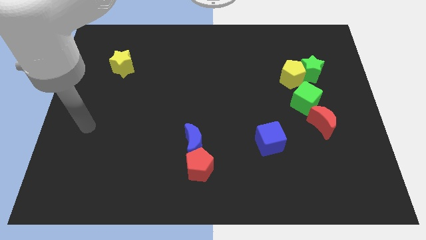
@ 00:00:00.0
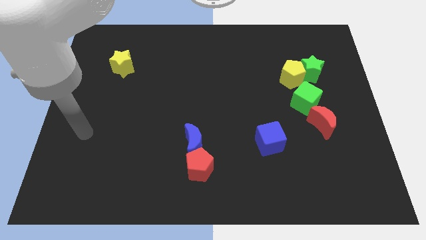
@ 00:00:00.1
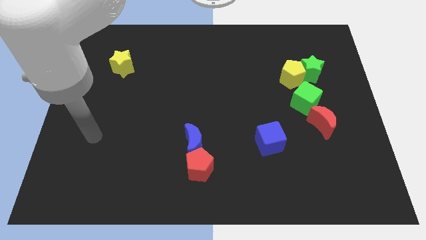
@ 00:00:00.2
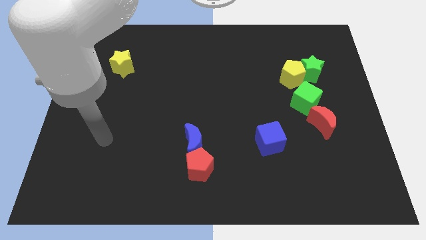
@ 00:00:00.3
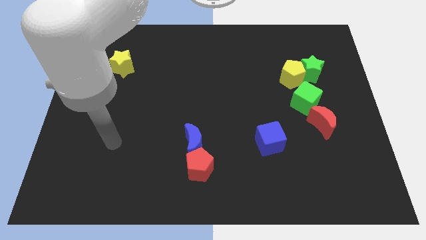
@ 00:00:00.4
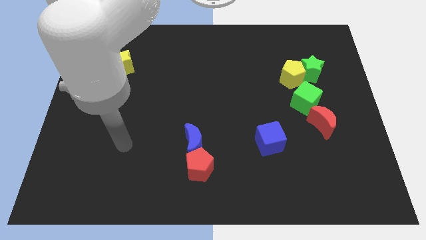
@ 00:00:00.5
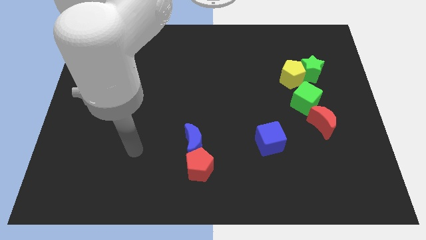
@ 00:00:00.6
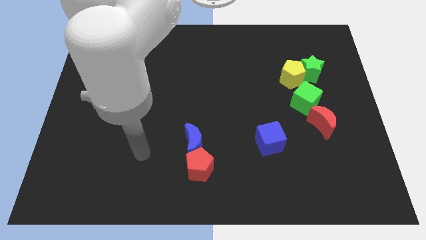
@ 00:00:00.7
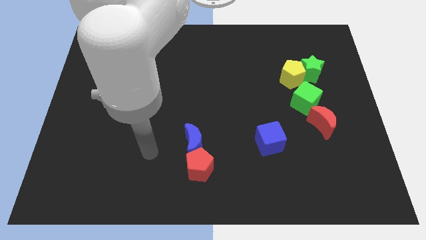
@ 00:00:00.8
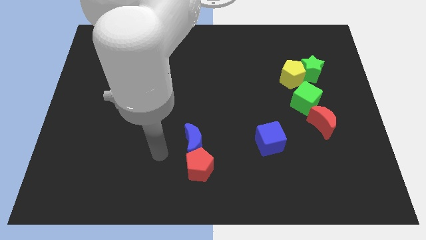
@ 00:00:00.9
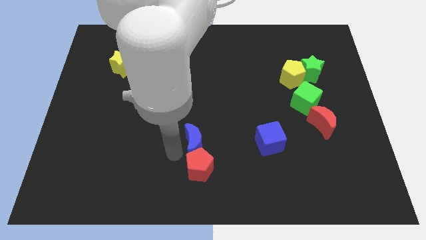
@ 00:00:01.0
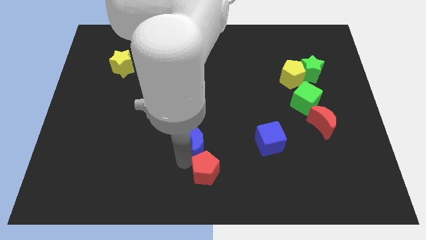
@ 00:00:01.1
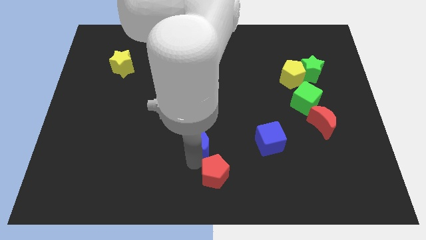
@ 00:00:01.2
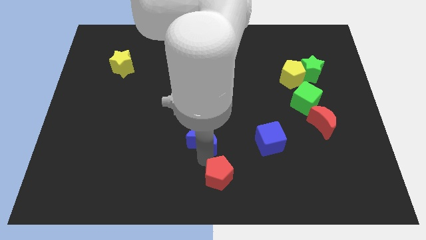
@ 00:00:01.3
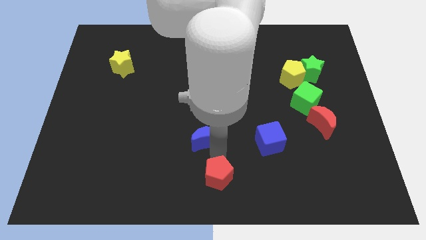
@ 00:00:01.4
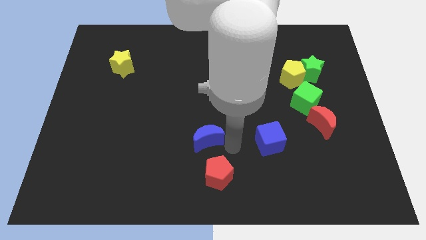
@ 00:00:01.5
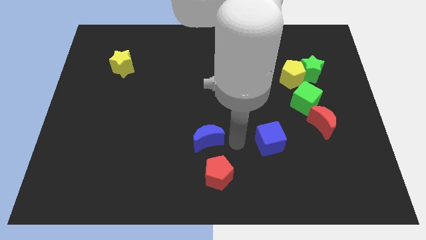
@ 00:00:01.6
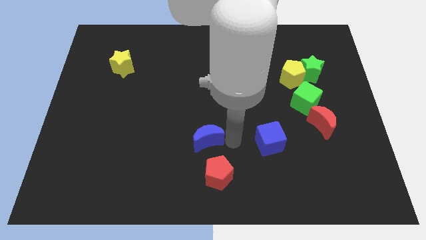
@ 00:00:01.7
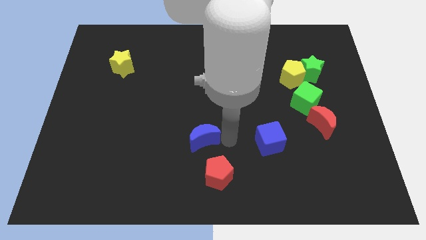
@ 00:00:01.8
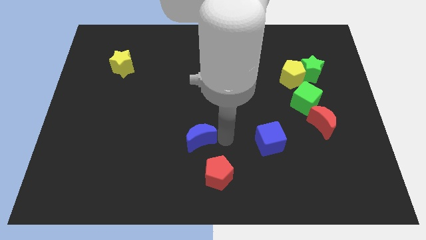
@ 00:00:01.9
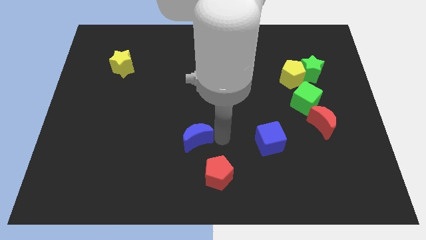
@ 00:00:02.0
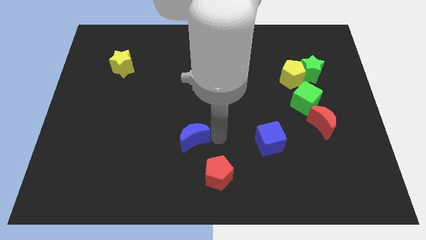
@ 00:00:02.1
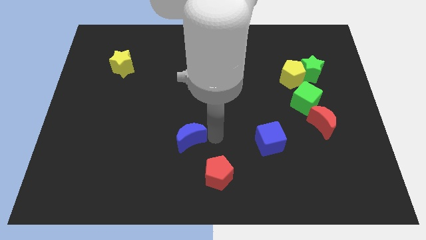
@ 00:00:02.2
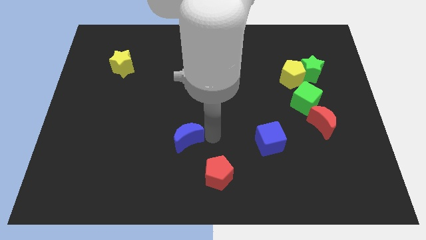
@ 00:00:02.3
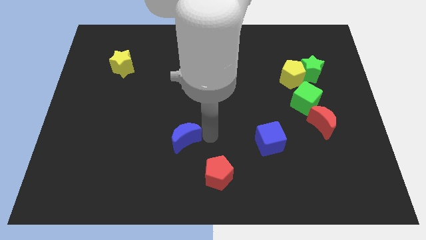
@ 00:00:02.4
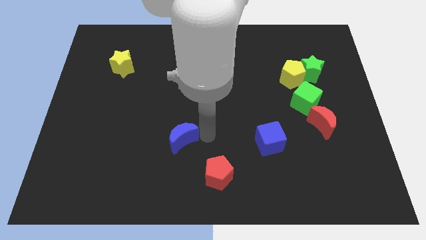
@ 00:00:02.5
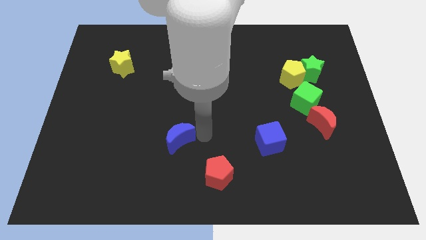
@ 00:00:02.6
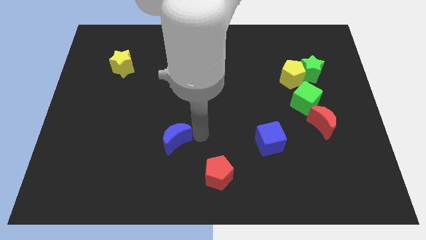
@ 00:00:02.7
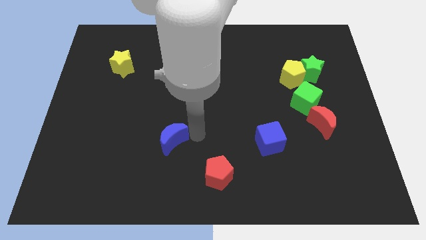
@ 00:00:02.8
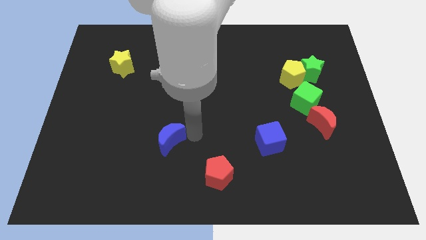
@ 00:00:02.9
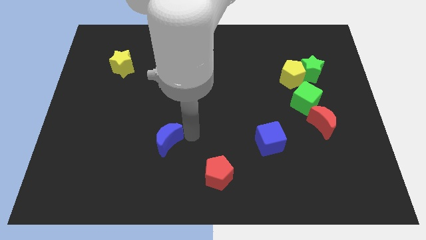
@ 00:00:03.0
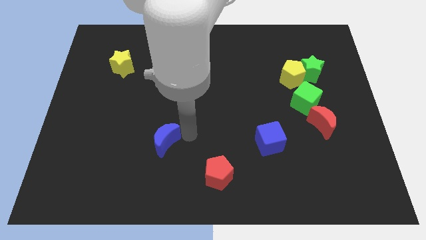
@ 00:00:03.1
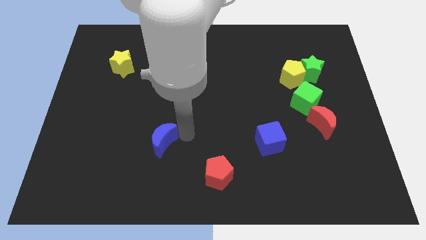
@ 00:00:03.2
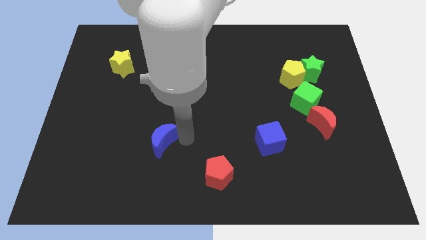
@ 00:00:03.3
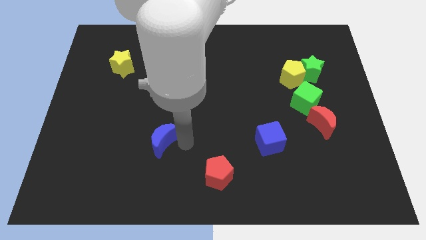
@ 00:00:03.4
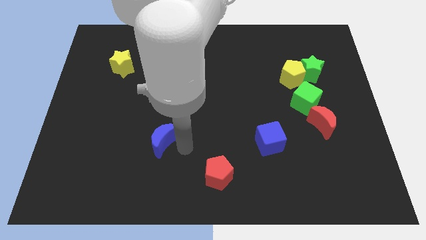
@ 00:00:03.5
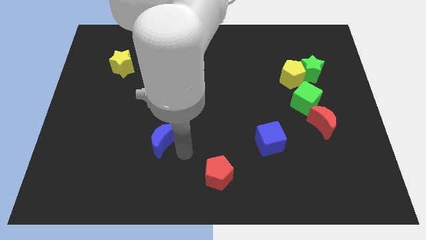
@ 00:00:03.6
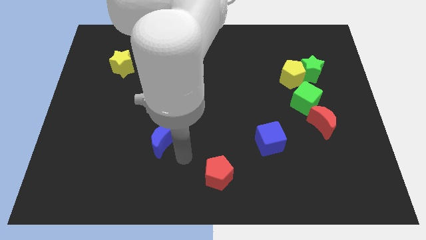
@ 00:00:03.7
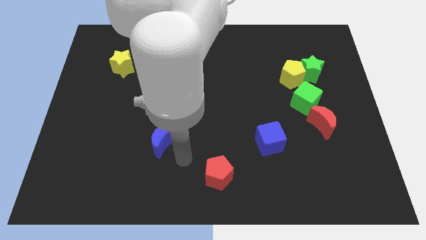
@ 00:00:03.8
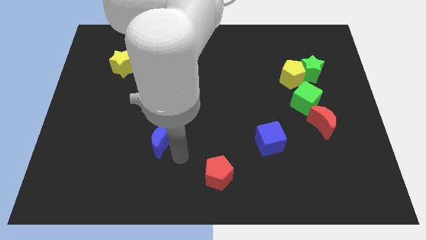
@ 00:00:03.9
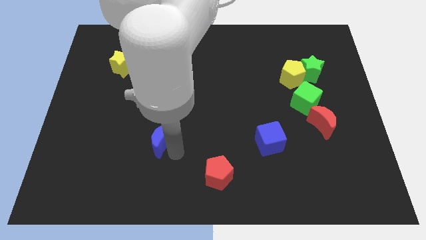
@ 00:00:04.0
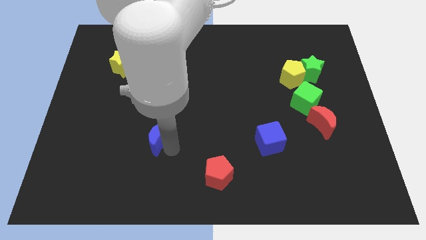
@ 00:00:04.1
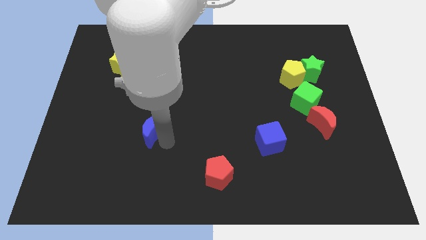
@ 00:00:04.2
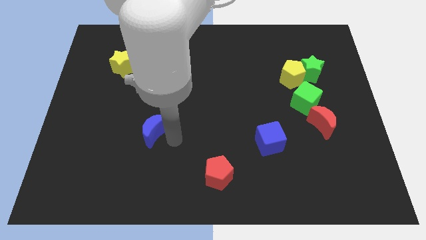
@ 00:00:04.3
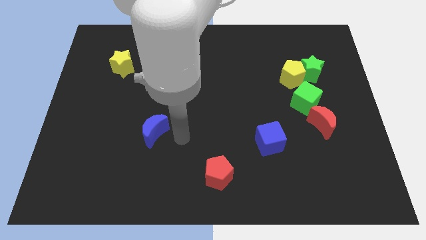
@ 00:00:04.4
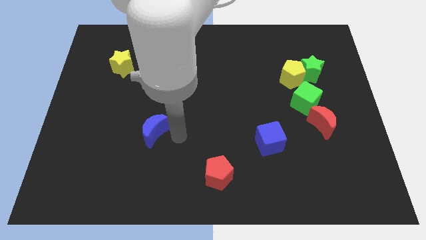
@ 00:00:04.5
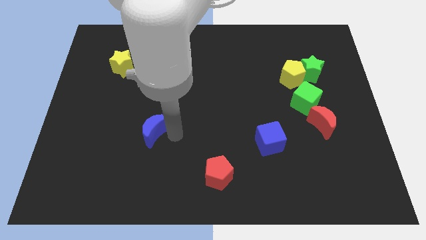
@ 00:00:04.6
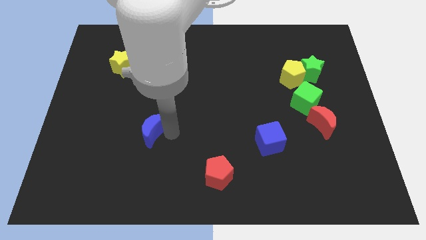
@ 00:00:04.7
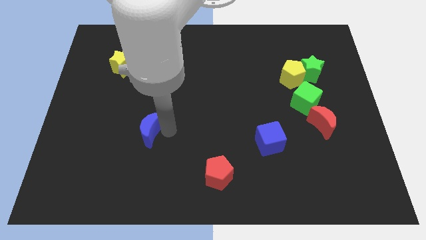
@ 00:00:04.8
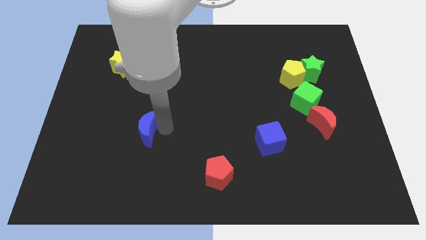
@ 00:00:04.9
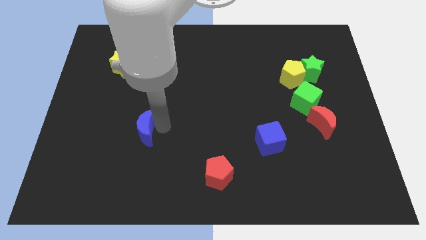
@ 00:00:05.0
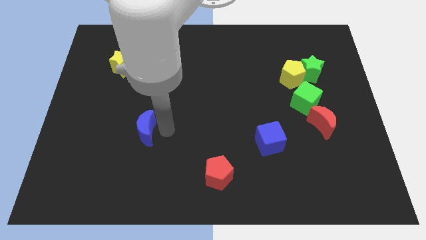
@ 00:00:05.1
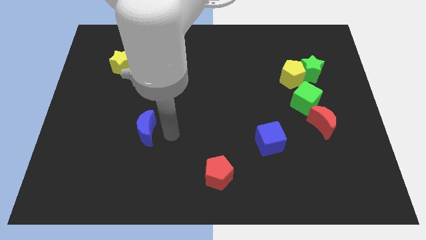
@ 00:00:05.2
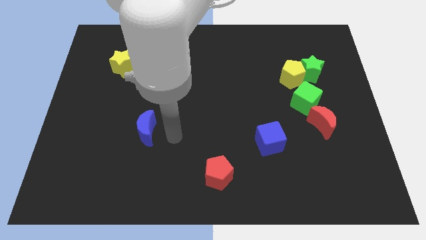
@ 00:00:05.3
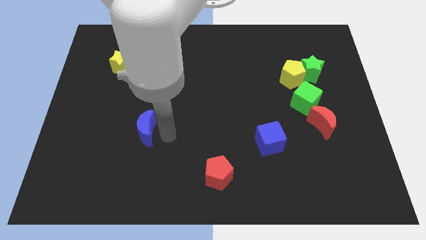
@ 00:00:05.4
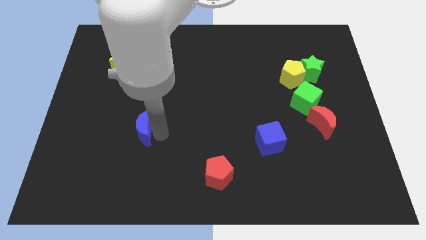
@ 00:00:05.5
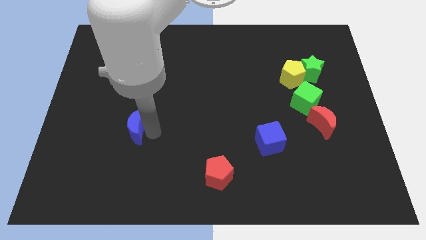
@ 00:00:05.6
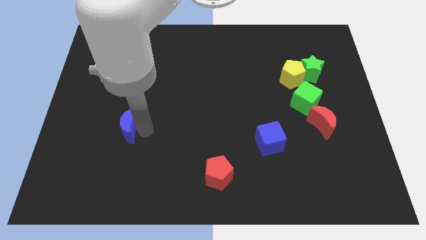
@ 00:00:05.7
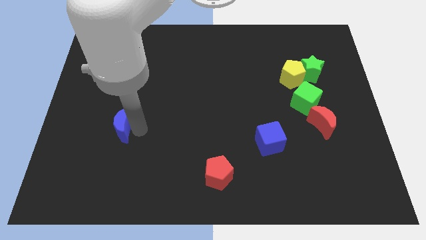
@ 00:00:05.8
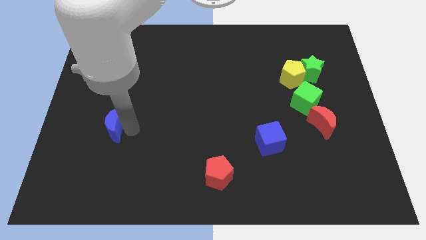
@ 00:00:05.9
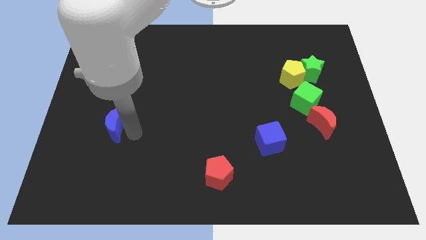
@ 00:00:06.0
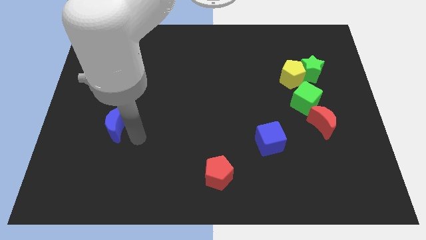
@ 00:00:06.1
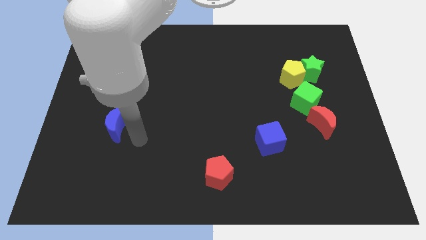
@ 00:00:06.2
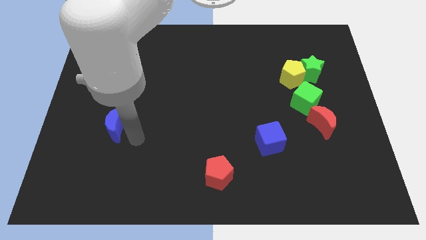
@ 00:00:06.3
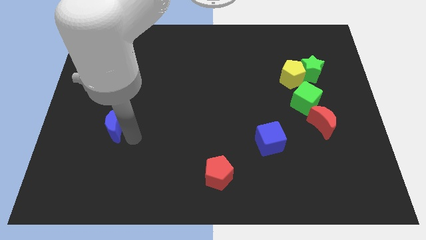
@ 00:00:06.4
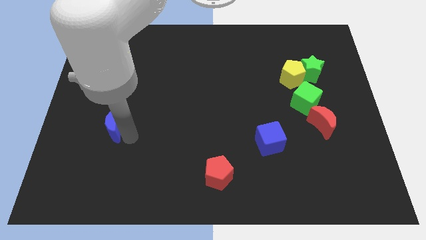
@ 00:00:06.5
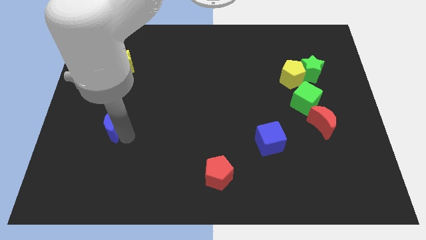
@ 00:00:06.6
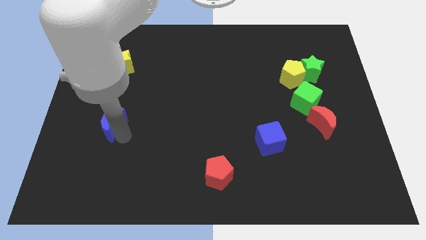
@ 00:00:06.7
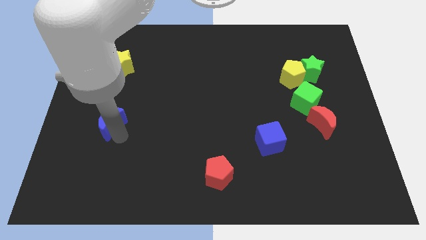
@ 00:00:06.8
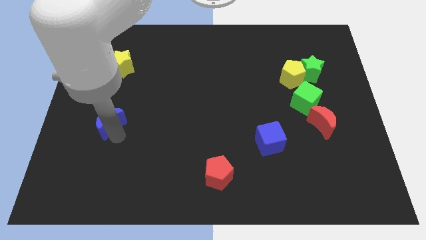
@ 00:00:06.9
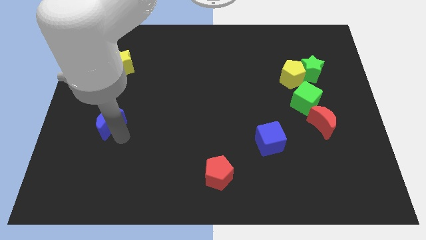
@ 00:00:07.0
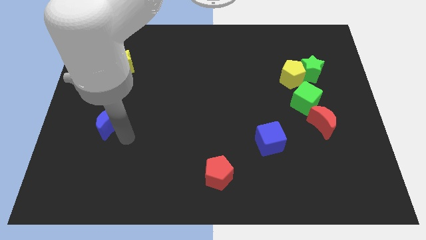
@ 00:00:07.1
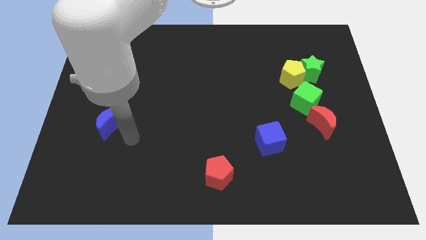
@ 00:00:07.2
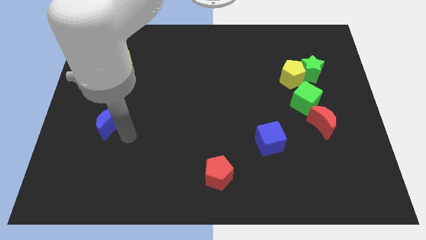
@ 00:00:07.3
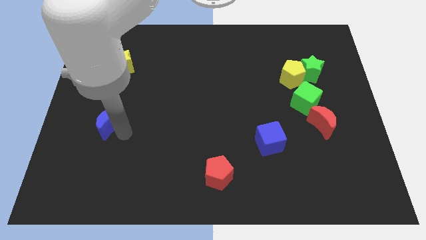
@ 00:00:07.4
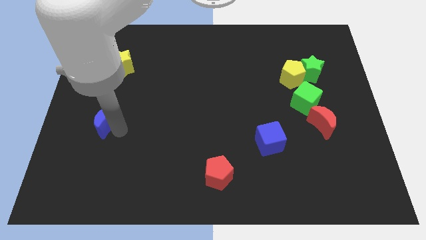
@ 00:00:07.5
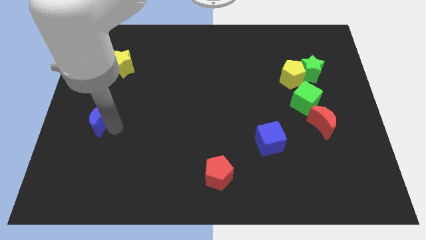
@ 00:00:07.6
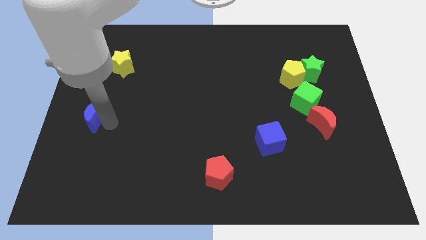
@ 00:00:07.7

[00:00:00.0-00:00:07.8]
move the blue moon to the left side

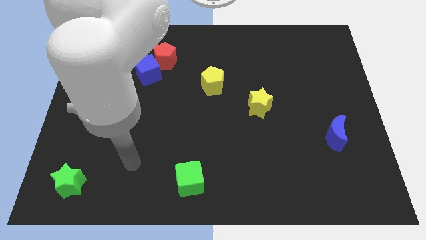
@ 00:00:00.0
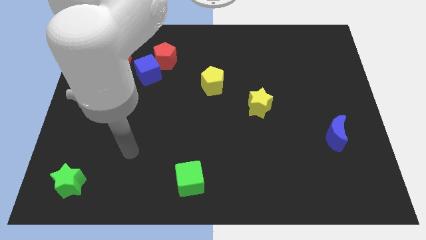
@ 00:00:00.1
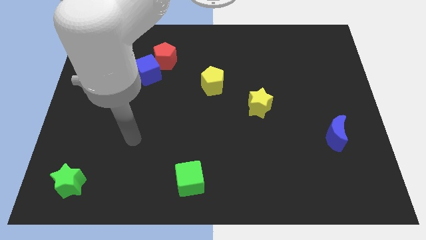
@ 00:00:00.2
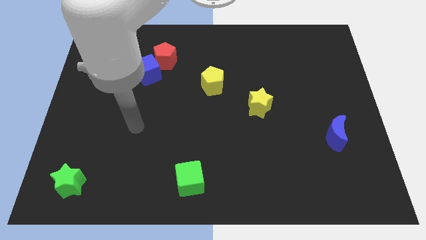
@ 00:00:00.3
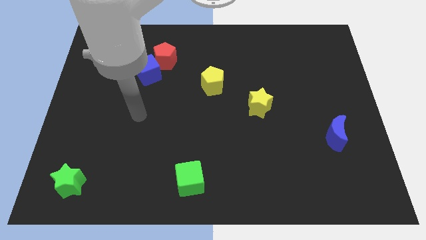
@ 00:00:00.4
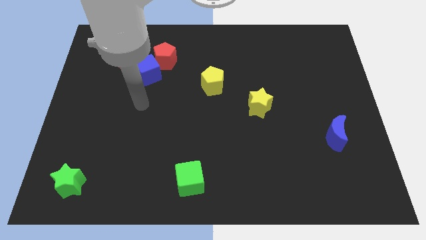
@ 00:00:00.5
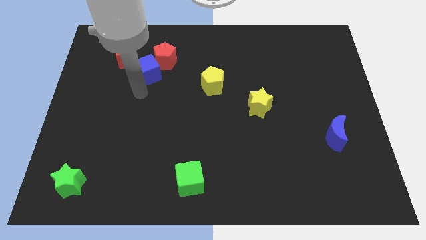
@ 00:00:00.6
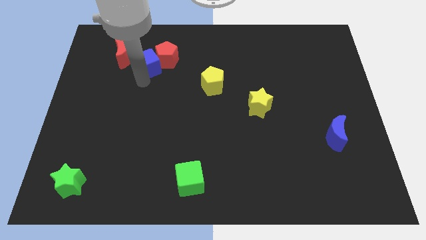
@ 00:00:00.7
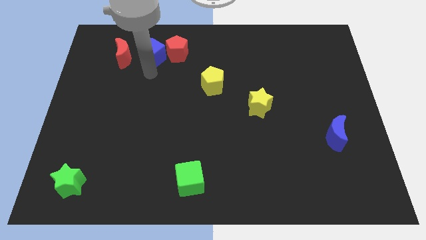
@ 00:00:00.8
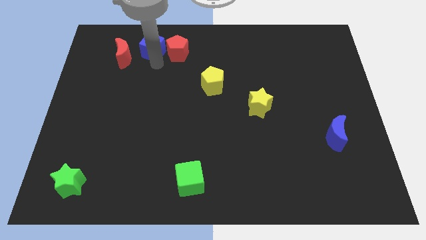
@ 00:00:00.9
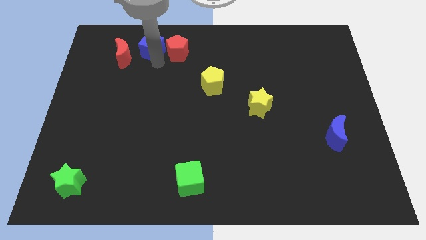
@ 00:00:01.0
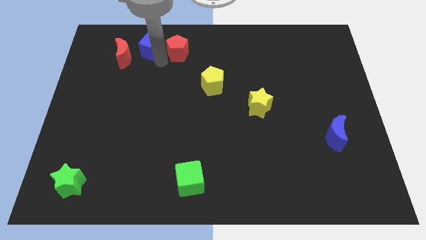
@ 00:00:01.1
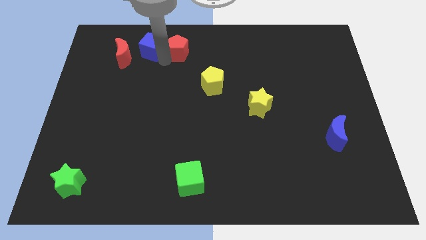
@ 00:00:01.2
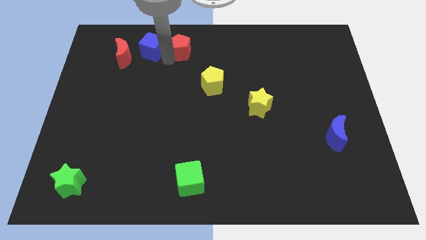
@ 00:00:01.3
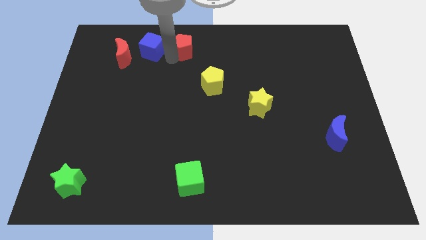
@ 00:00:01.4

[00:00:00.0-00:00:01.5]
move the red pentagon to the top
